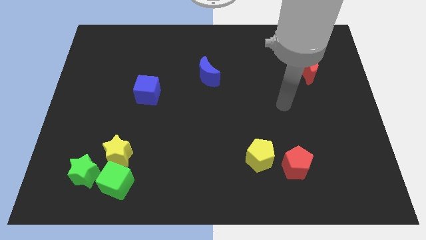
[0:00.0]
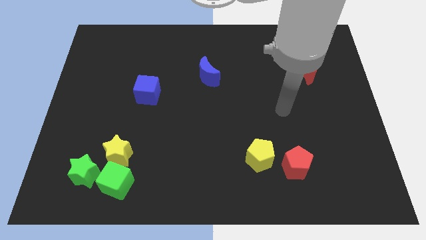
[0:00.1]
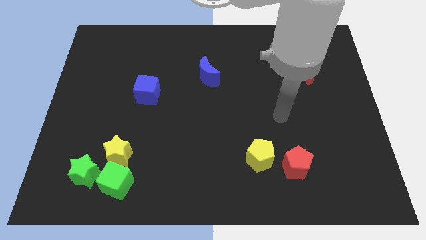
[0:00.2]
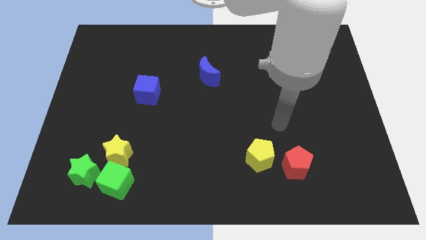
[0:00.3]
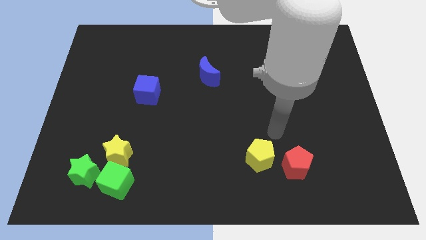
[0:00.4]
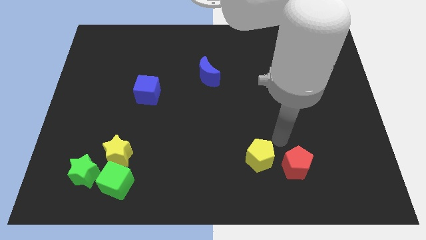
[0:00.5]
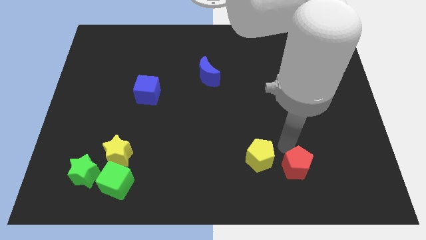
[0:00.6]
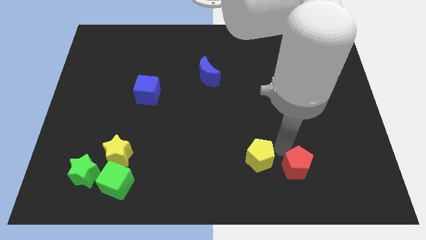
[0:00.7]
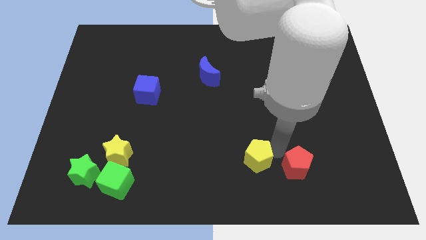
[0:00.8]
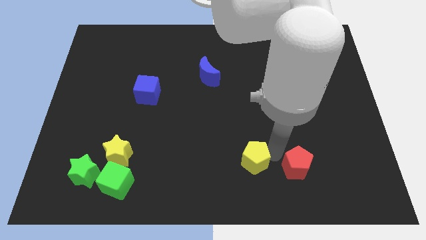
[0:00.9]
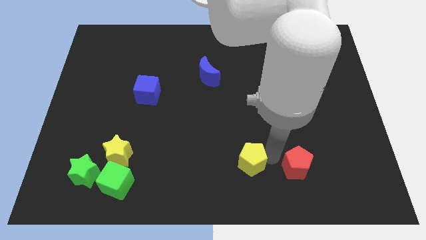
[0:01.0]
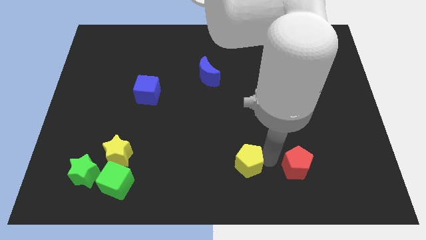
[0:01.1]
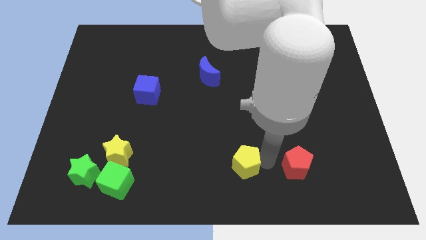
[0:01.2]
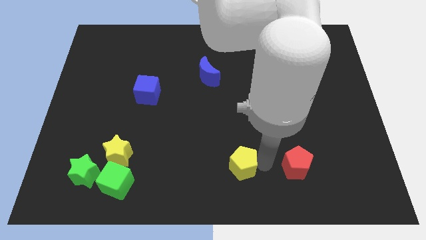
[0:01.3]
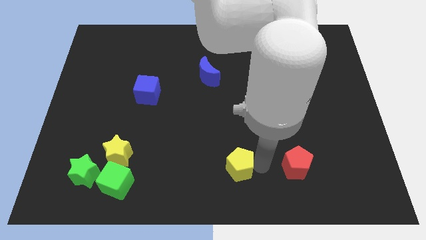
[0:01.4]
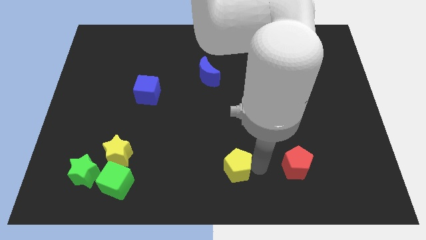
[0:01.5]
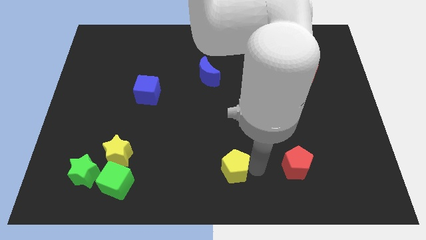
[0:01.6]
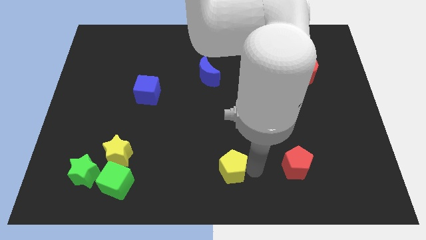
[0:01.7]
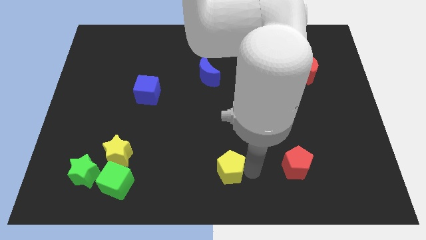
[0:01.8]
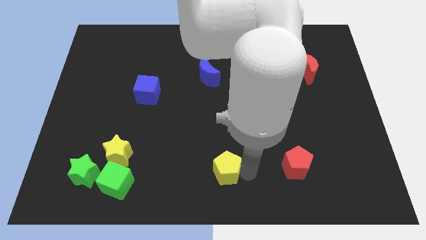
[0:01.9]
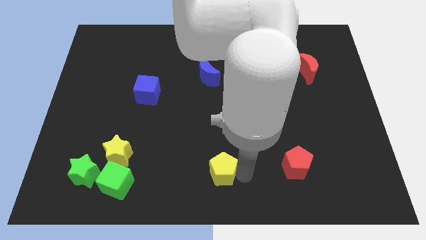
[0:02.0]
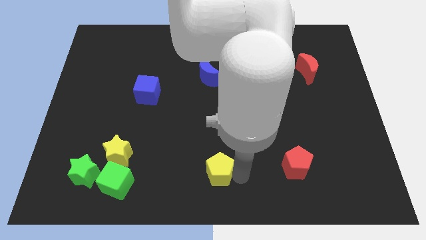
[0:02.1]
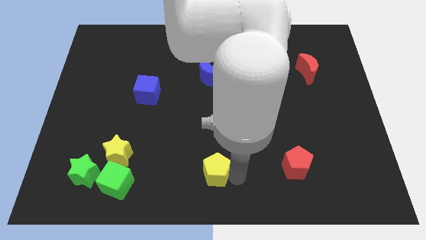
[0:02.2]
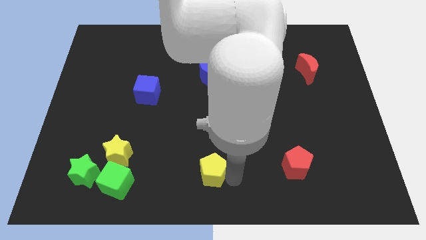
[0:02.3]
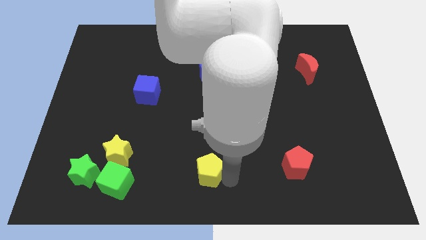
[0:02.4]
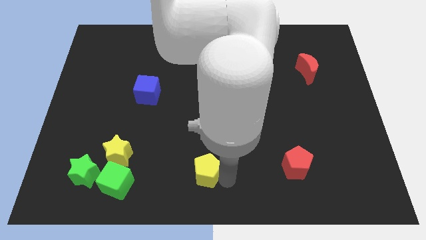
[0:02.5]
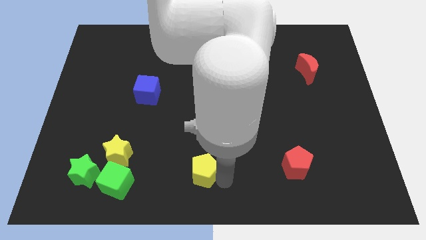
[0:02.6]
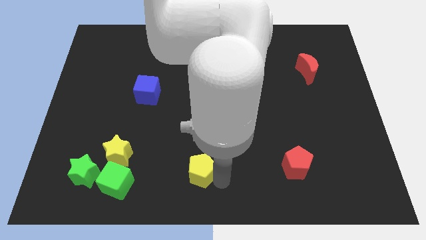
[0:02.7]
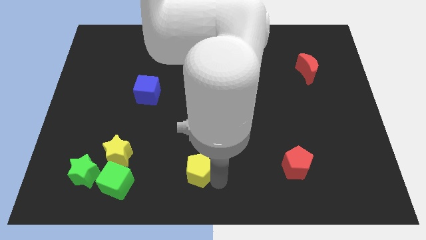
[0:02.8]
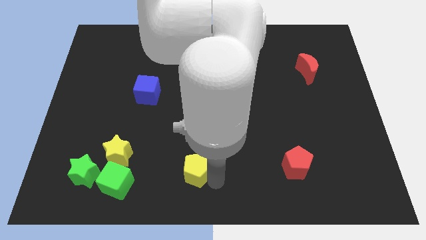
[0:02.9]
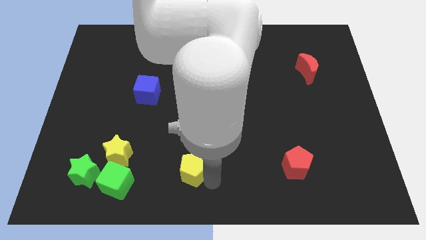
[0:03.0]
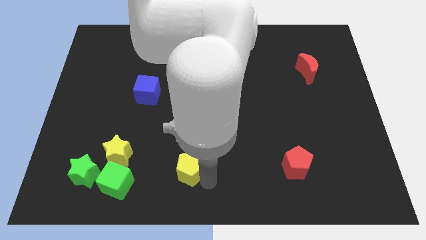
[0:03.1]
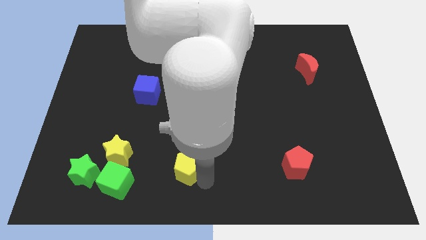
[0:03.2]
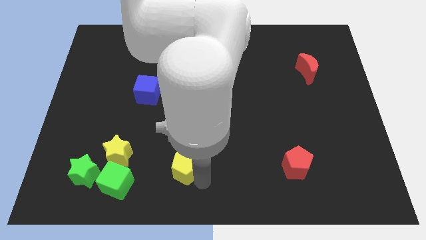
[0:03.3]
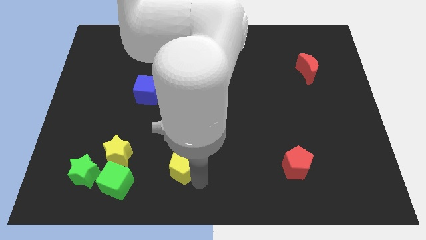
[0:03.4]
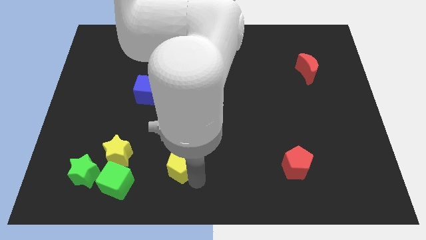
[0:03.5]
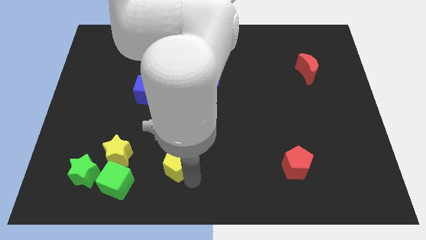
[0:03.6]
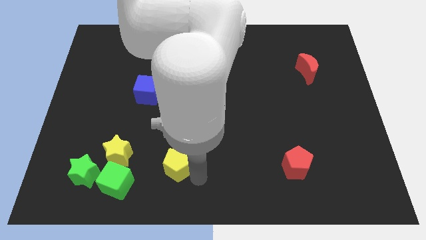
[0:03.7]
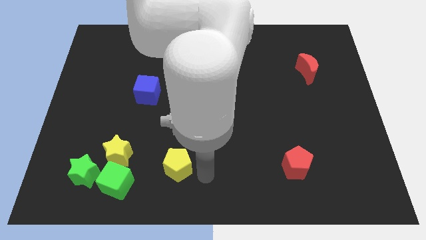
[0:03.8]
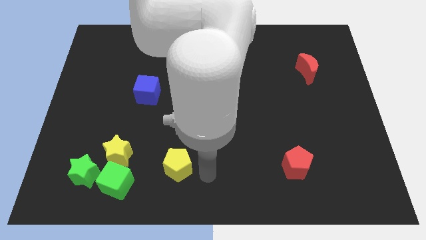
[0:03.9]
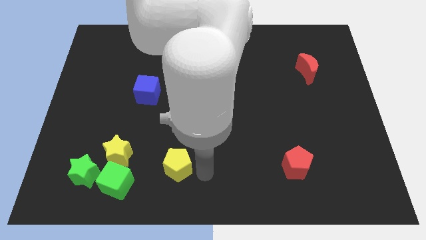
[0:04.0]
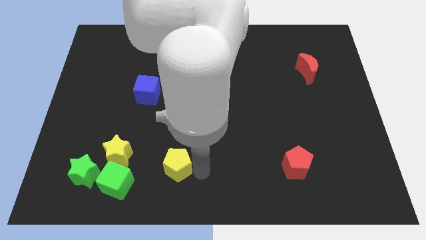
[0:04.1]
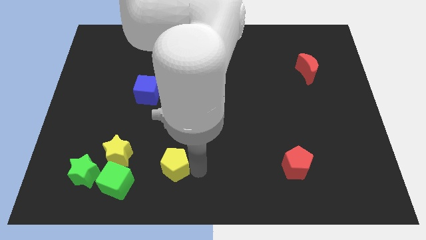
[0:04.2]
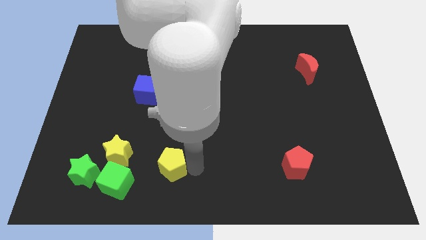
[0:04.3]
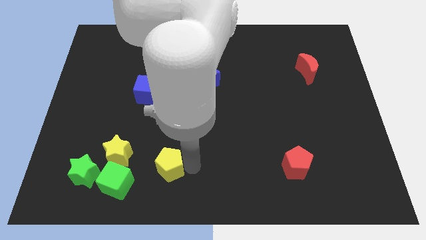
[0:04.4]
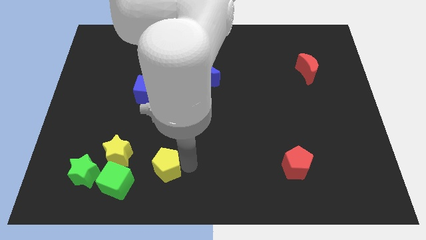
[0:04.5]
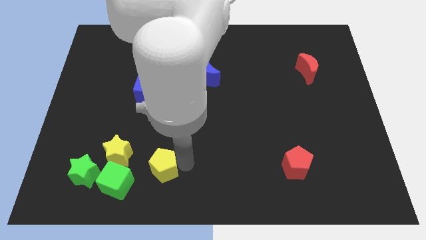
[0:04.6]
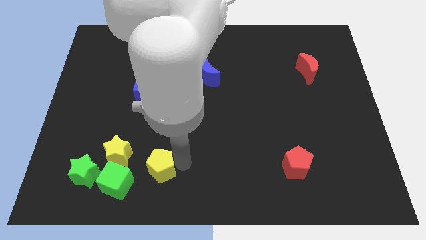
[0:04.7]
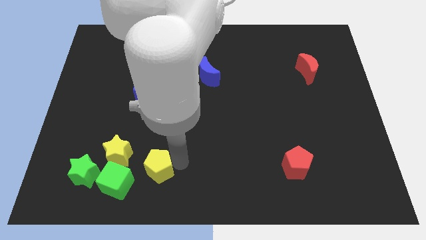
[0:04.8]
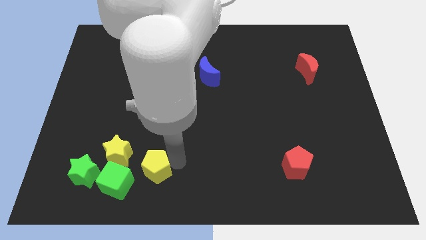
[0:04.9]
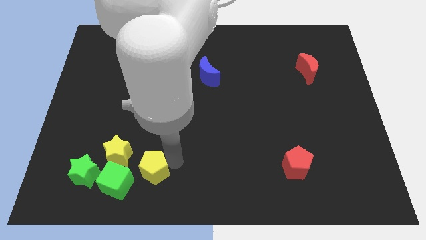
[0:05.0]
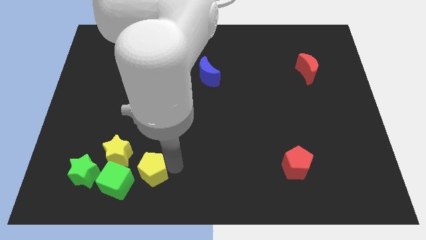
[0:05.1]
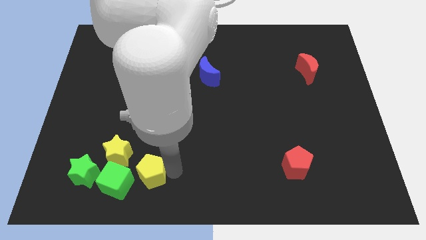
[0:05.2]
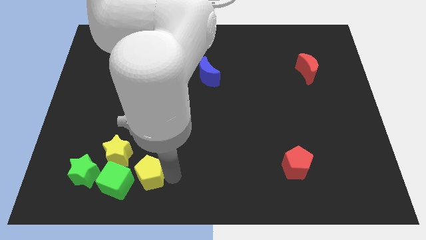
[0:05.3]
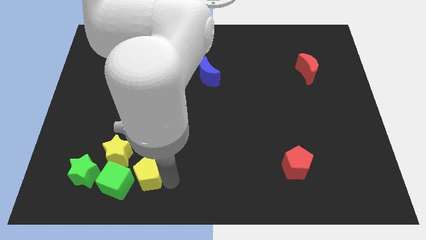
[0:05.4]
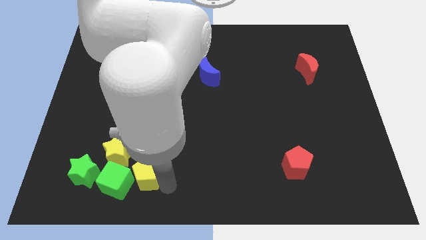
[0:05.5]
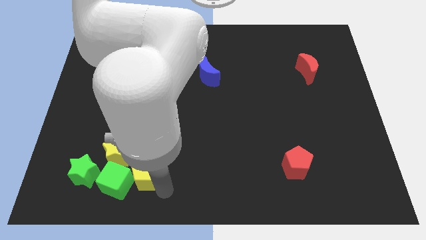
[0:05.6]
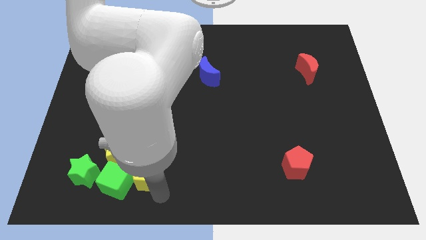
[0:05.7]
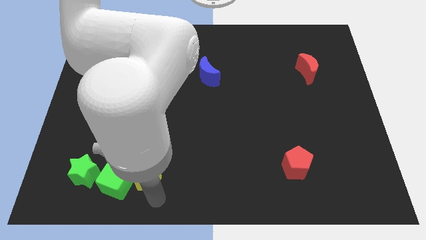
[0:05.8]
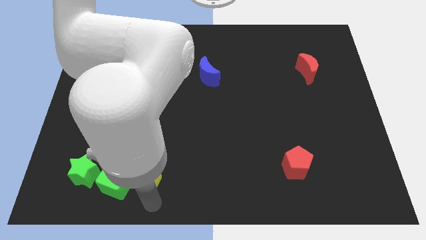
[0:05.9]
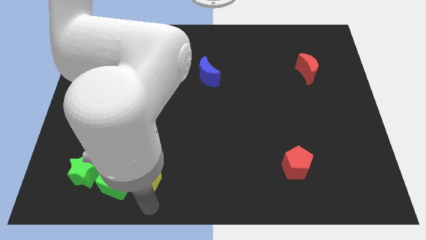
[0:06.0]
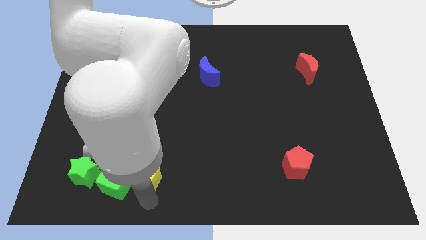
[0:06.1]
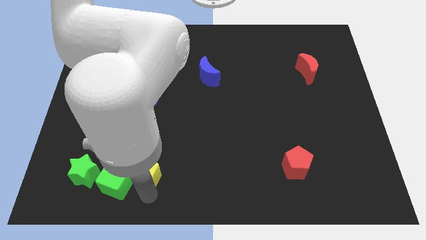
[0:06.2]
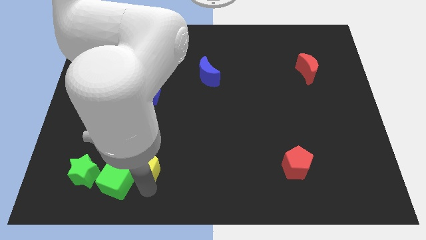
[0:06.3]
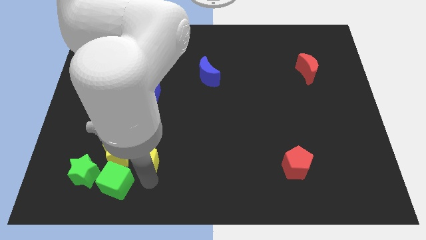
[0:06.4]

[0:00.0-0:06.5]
move the yellow pentagon next to the yellow star
